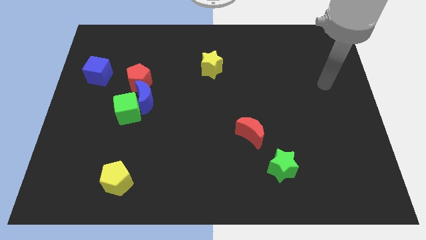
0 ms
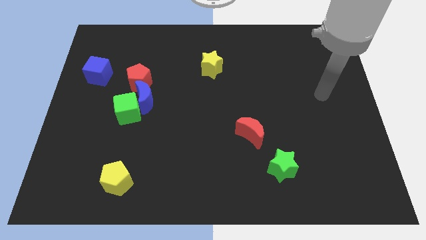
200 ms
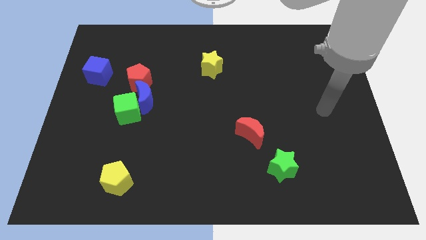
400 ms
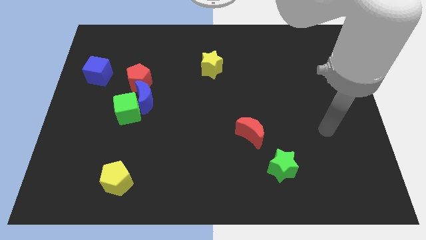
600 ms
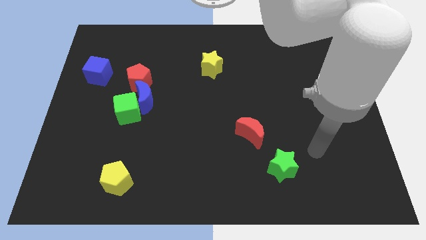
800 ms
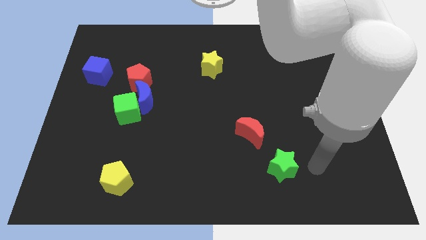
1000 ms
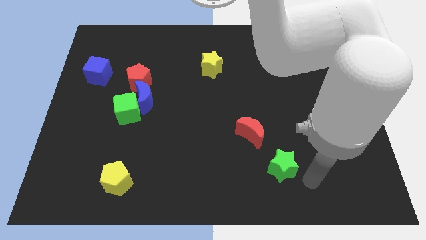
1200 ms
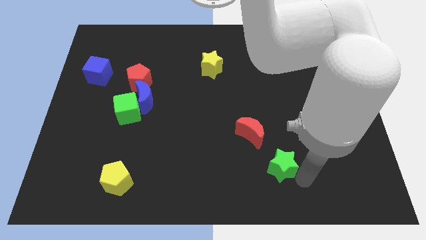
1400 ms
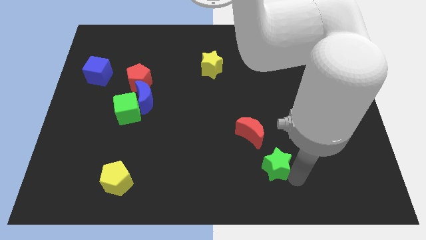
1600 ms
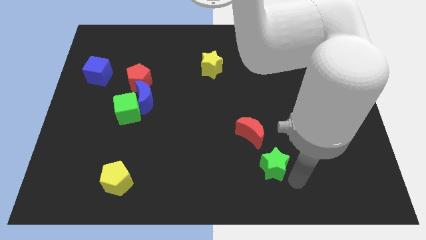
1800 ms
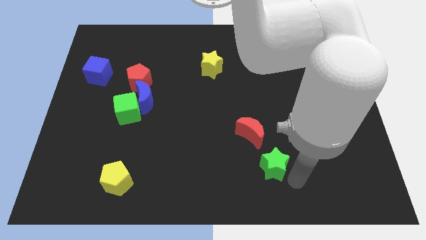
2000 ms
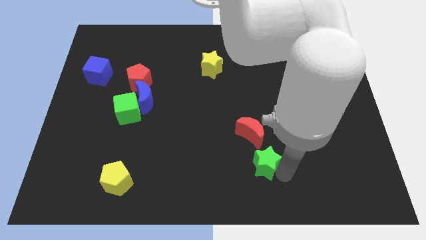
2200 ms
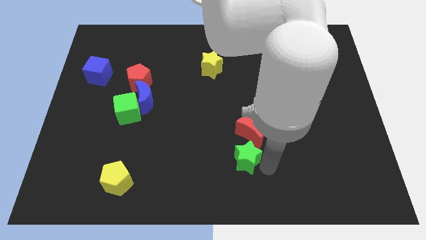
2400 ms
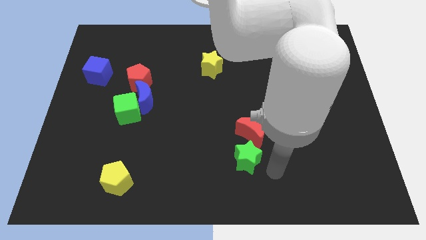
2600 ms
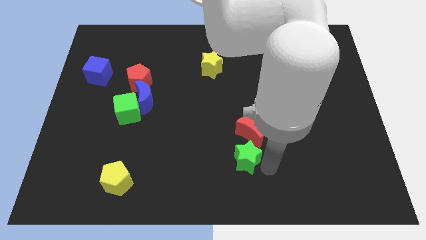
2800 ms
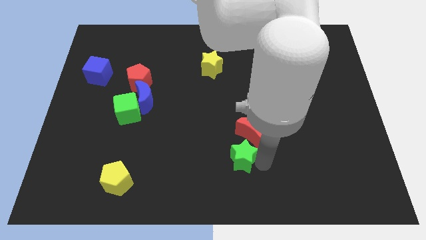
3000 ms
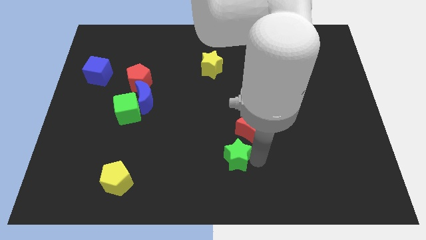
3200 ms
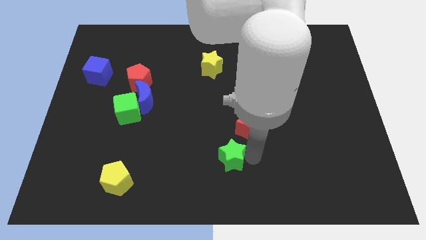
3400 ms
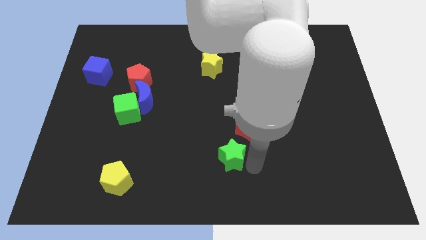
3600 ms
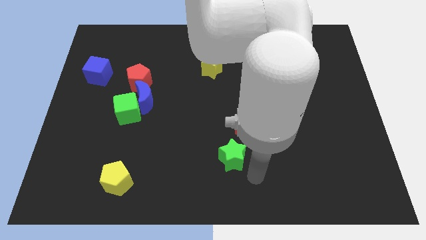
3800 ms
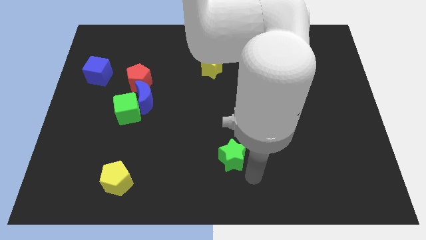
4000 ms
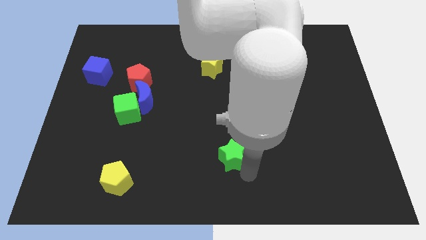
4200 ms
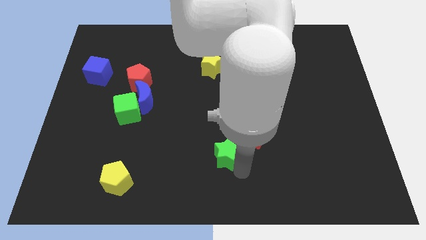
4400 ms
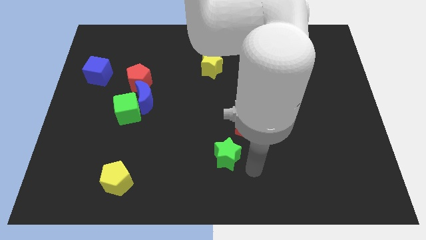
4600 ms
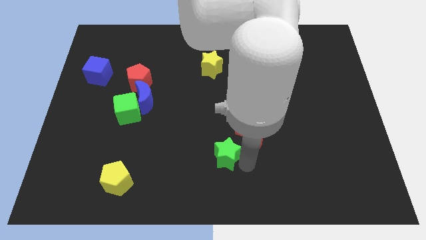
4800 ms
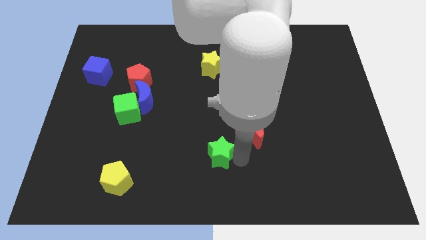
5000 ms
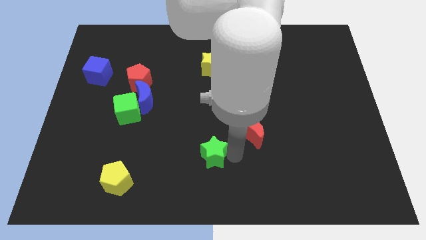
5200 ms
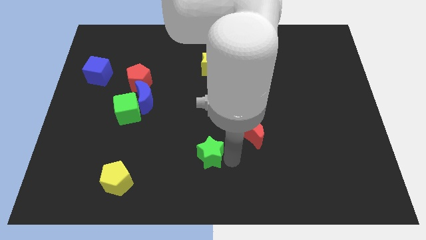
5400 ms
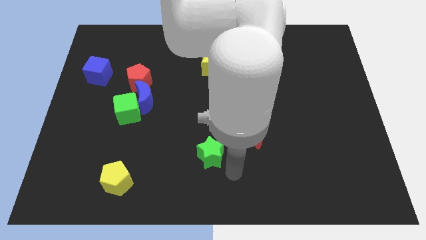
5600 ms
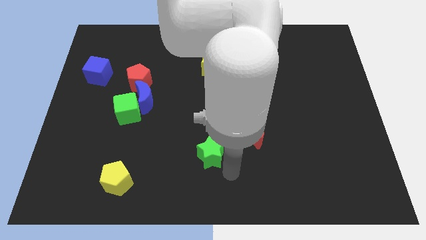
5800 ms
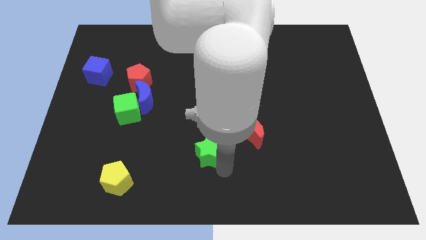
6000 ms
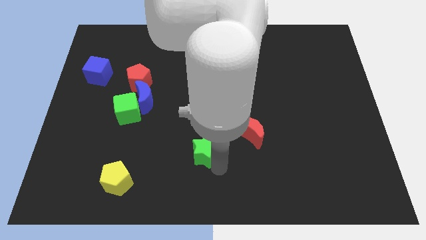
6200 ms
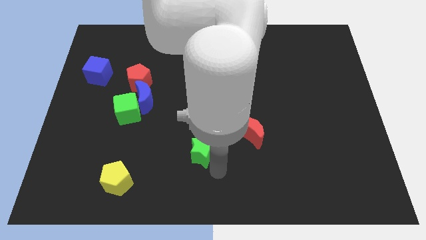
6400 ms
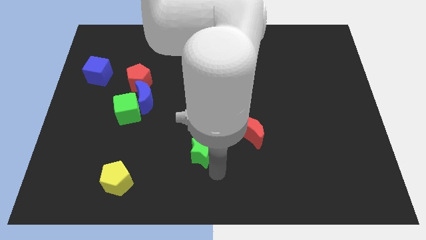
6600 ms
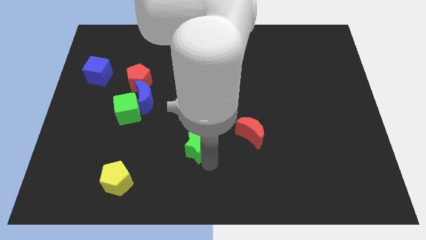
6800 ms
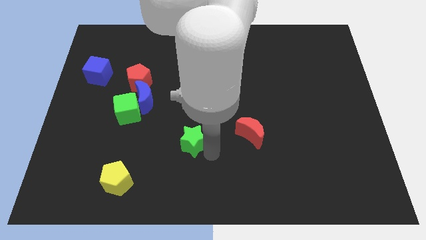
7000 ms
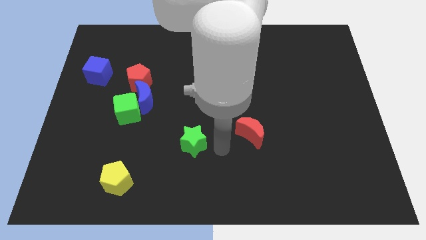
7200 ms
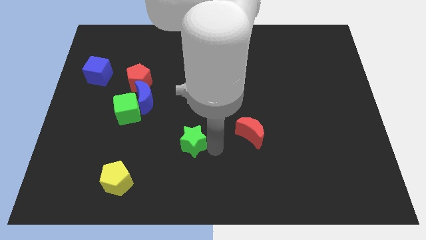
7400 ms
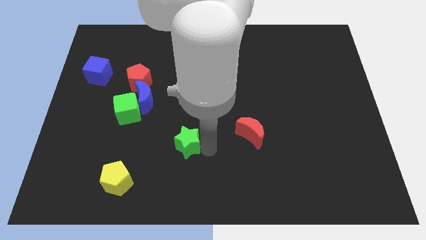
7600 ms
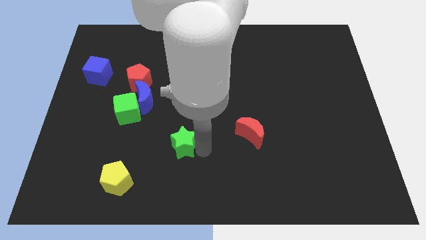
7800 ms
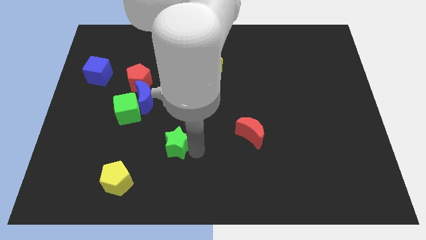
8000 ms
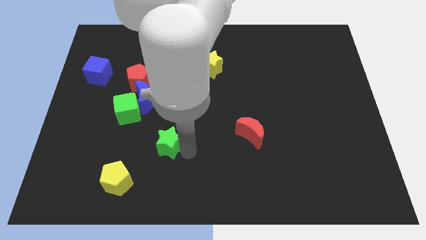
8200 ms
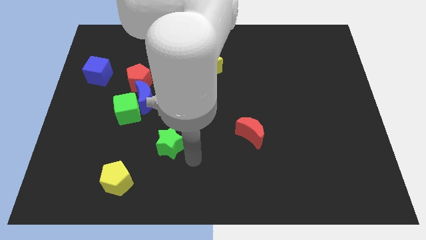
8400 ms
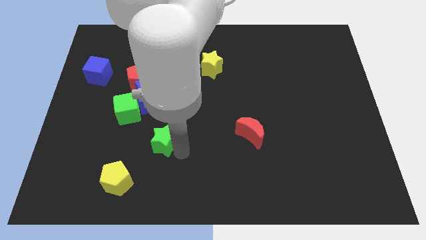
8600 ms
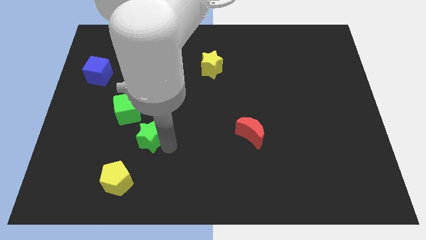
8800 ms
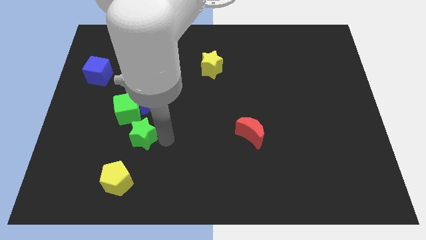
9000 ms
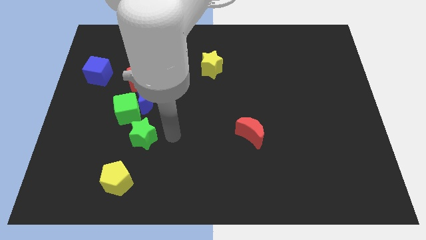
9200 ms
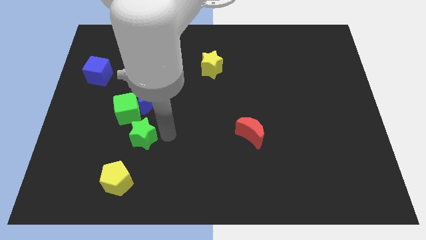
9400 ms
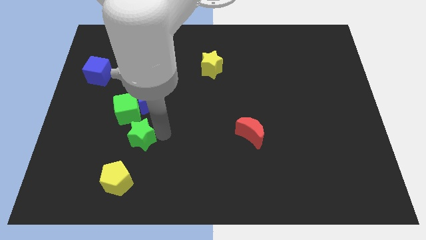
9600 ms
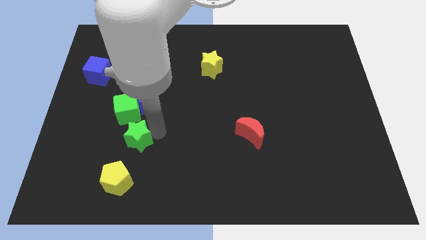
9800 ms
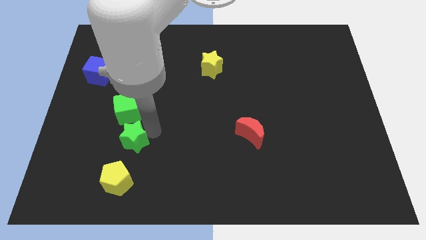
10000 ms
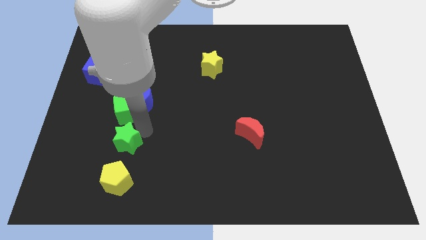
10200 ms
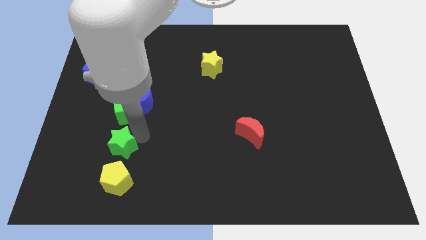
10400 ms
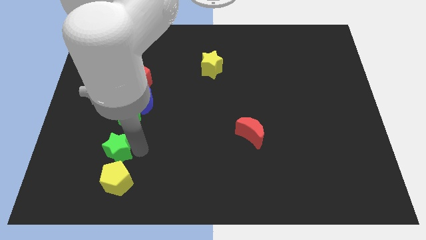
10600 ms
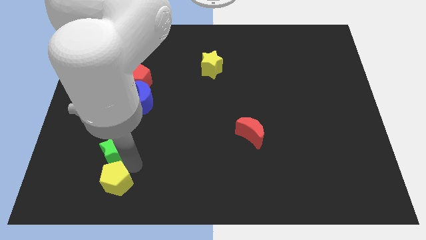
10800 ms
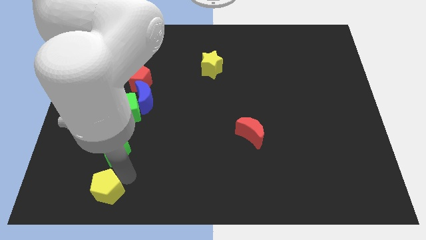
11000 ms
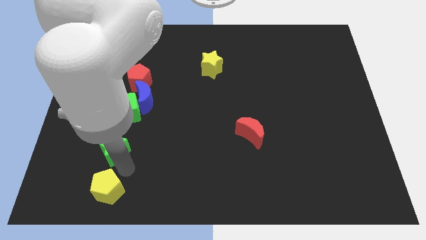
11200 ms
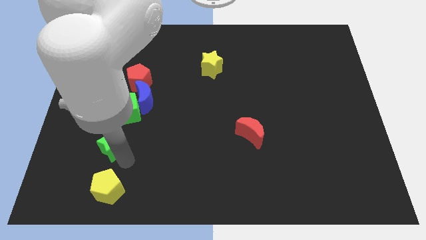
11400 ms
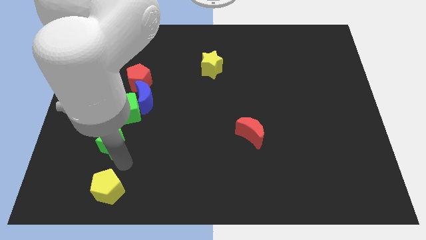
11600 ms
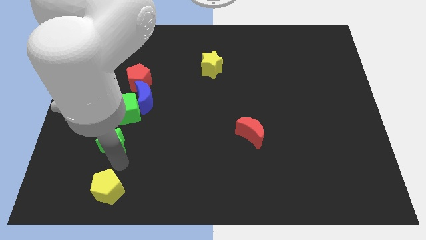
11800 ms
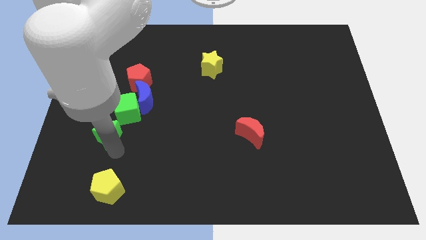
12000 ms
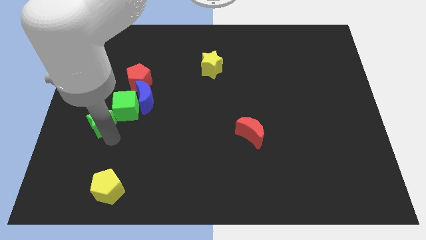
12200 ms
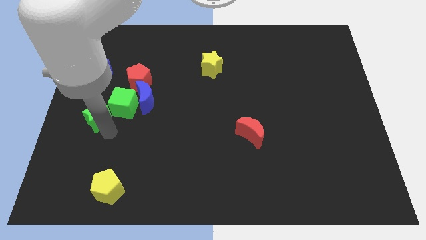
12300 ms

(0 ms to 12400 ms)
put the green star to the bottom of the blue cube
